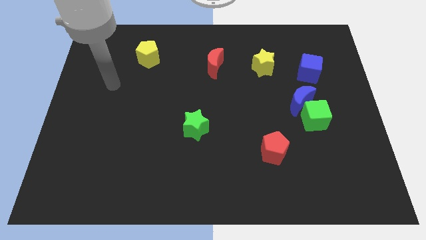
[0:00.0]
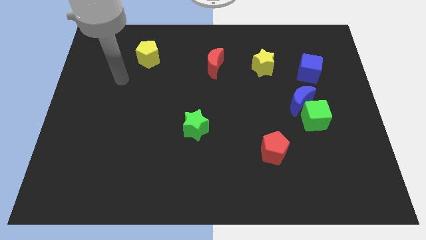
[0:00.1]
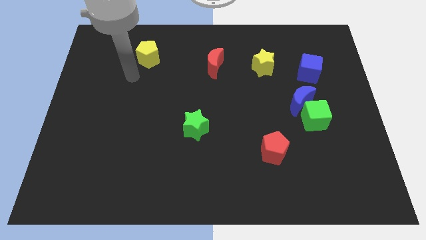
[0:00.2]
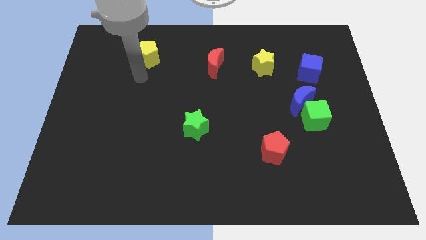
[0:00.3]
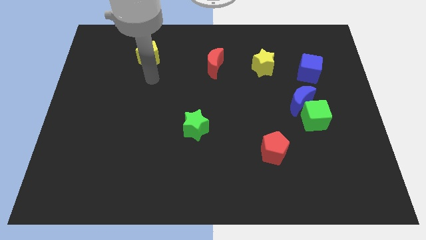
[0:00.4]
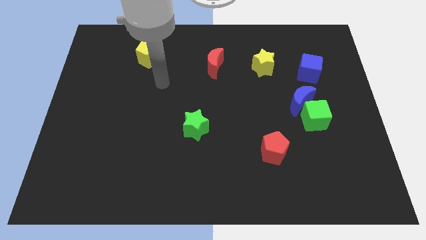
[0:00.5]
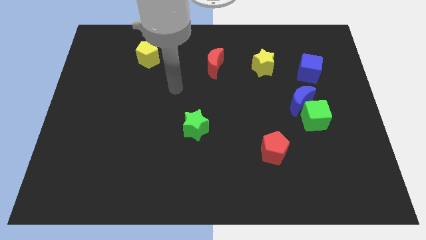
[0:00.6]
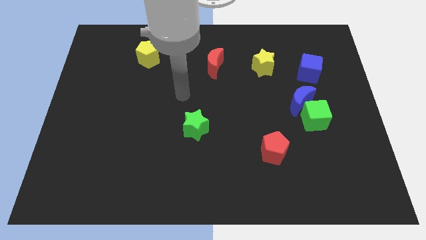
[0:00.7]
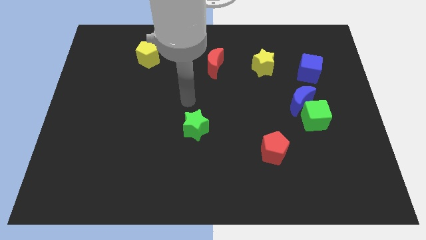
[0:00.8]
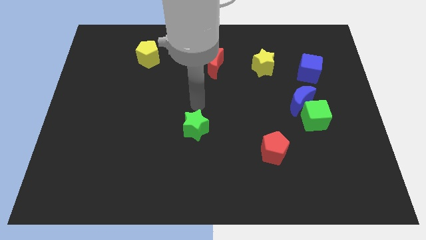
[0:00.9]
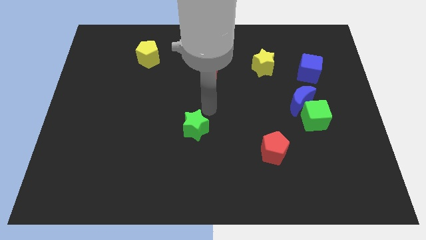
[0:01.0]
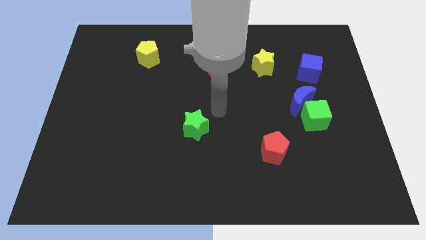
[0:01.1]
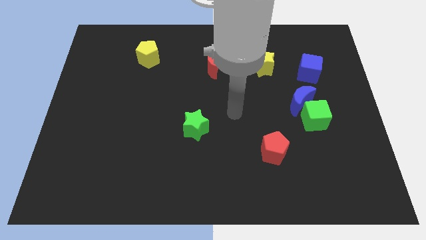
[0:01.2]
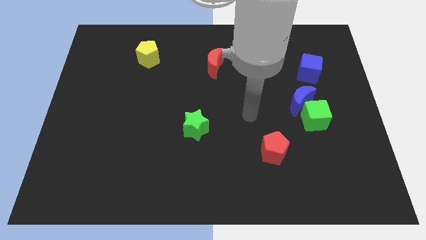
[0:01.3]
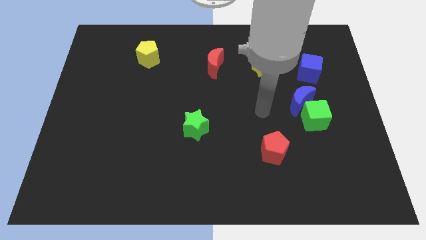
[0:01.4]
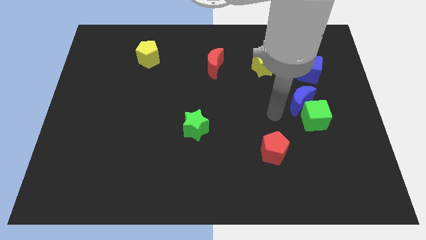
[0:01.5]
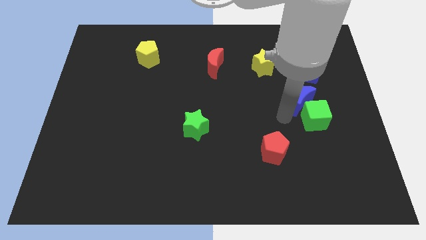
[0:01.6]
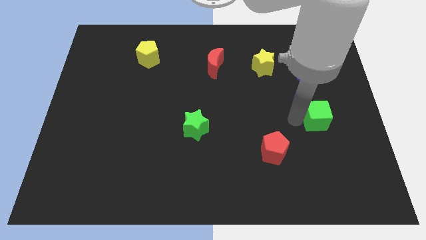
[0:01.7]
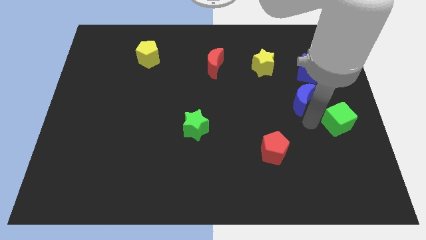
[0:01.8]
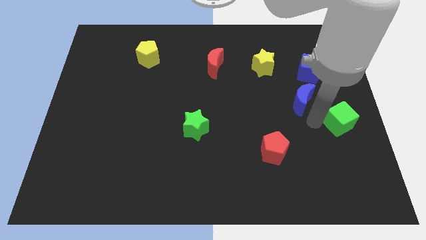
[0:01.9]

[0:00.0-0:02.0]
pull the blue moon apart from the green cube

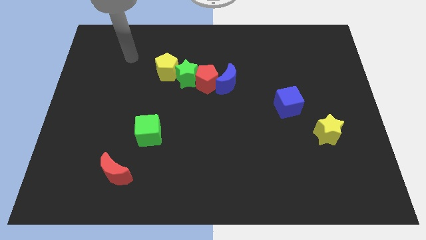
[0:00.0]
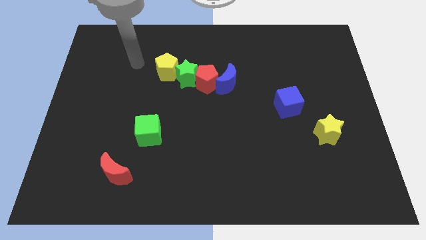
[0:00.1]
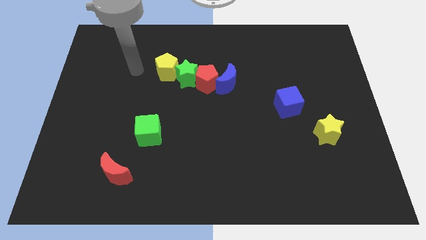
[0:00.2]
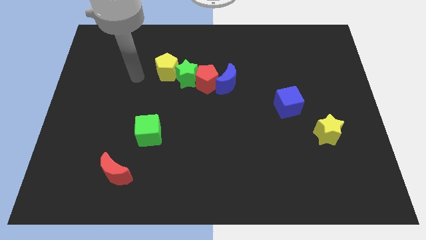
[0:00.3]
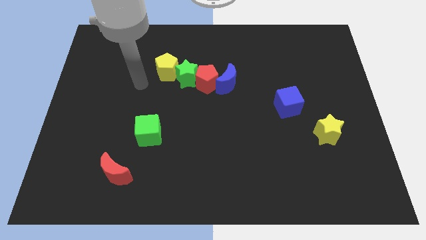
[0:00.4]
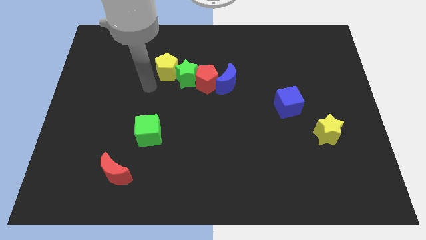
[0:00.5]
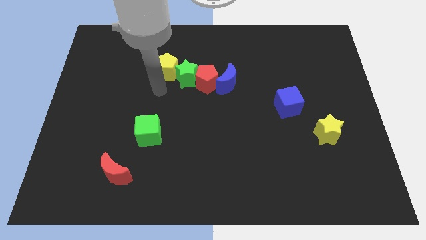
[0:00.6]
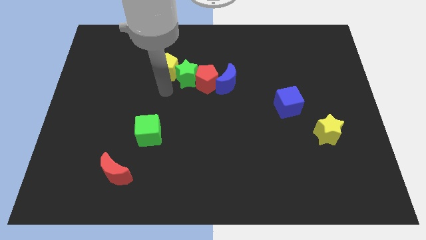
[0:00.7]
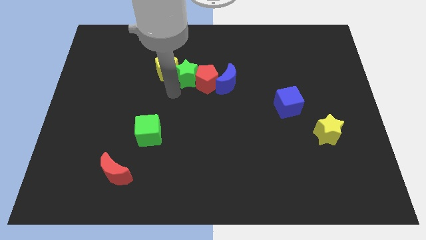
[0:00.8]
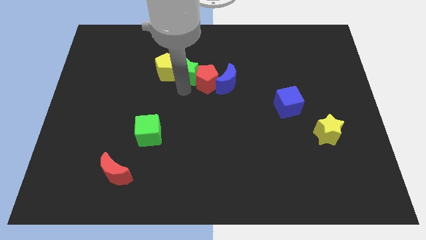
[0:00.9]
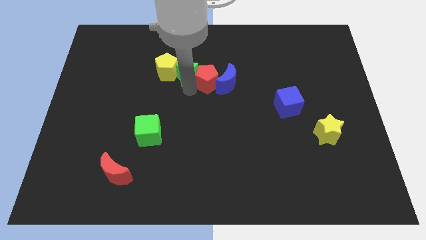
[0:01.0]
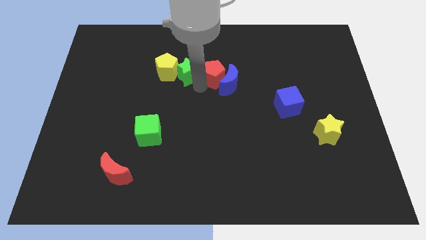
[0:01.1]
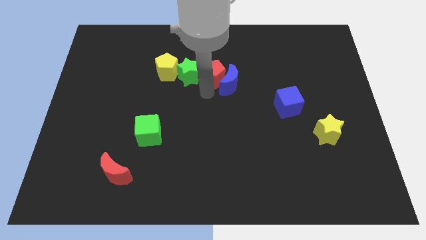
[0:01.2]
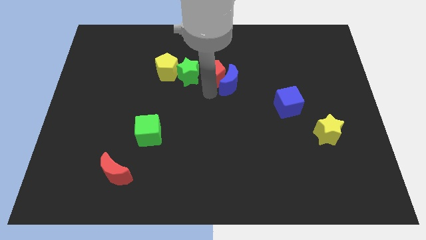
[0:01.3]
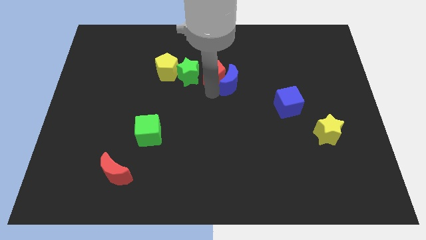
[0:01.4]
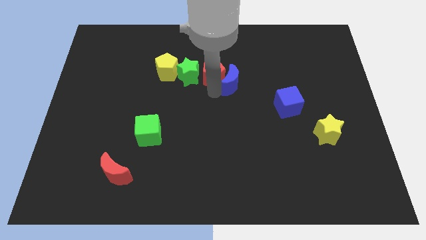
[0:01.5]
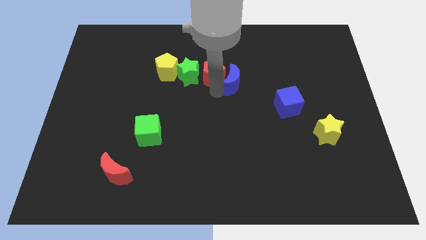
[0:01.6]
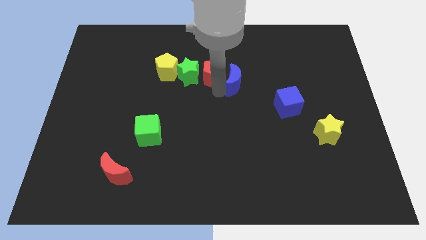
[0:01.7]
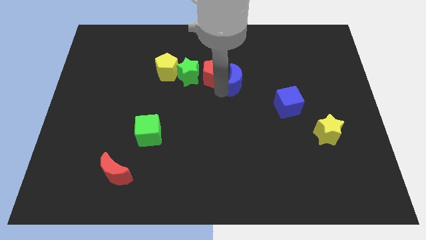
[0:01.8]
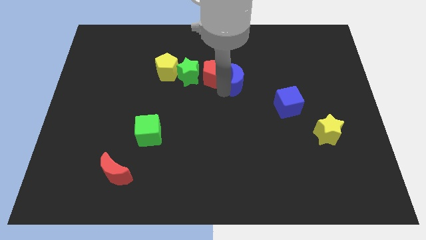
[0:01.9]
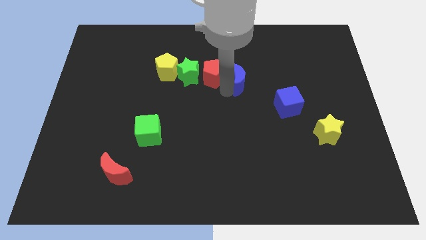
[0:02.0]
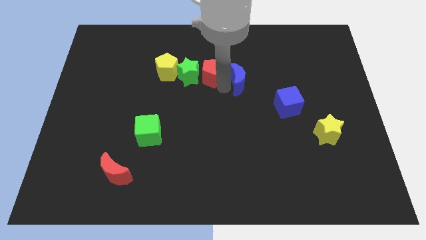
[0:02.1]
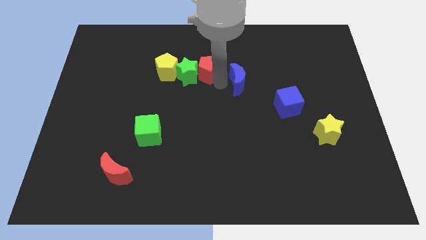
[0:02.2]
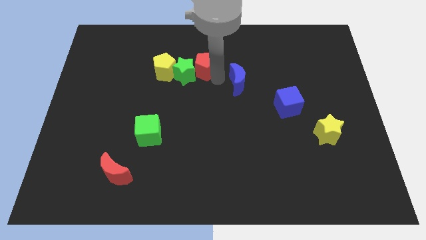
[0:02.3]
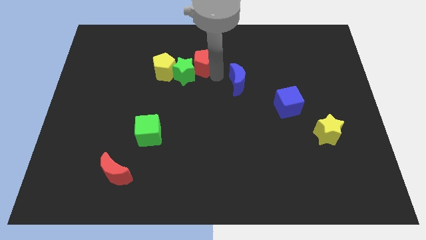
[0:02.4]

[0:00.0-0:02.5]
move the blue moon away from the red pentagon

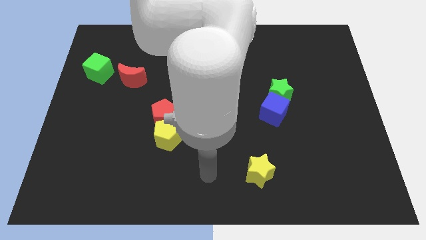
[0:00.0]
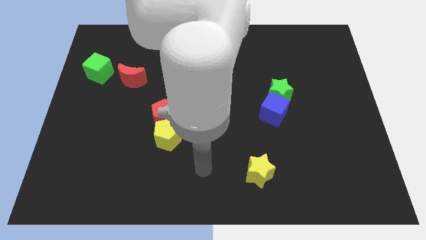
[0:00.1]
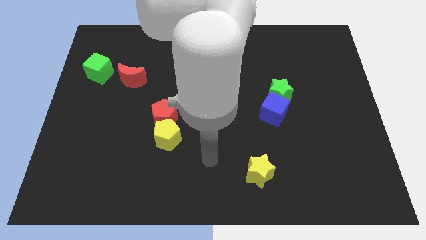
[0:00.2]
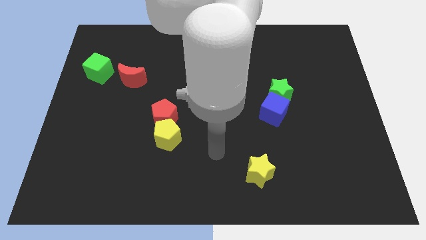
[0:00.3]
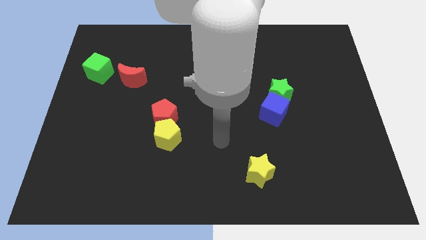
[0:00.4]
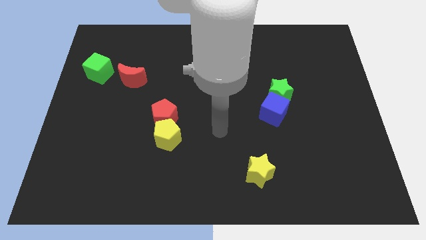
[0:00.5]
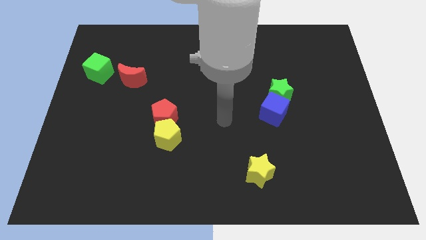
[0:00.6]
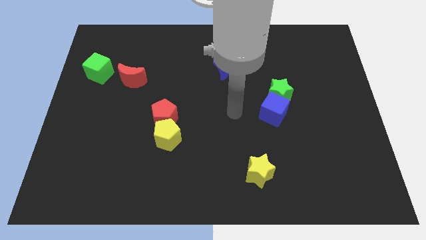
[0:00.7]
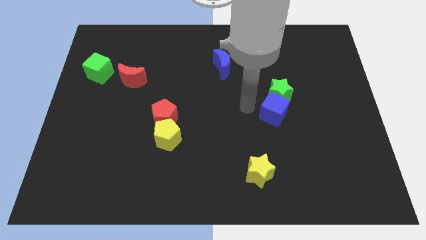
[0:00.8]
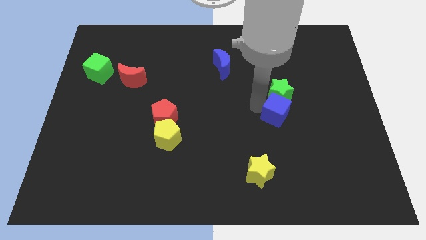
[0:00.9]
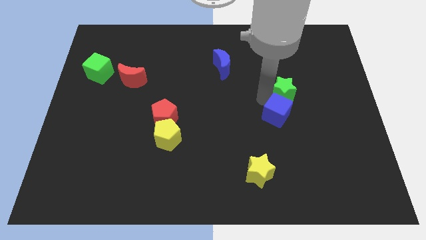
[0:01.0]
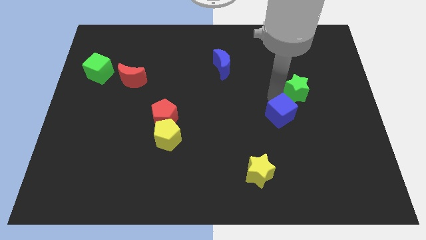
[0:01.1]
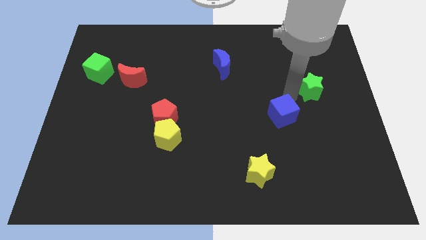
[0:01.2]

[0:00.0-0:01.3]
pull the blue cube apart from the green star

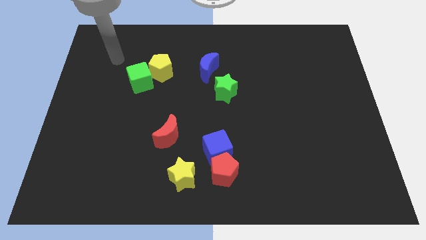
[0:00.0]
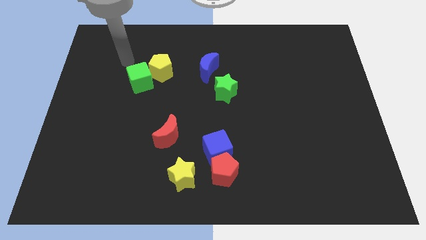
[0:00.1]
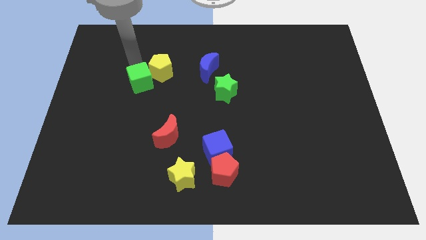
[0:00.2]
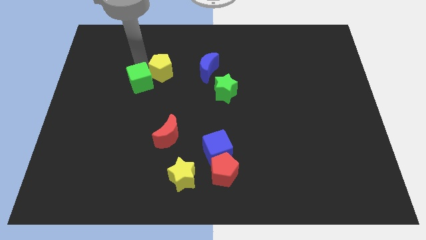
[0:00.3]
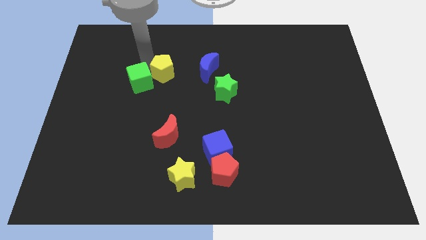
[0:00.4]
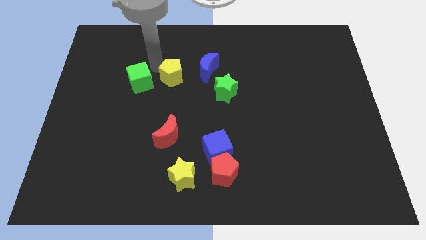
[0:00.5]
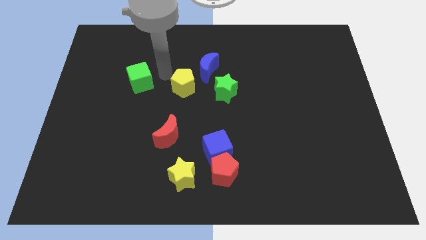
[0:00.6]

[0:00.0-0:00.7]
move the green cube away from the yellow pentagon

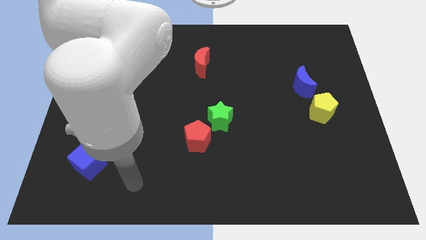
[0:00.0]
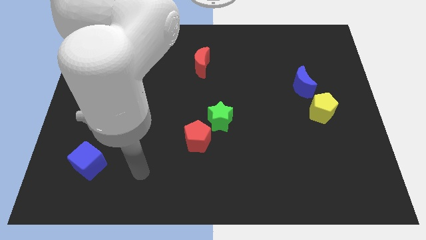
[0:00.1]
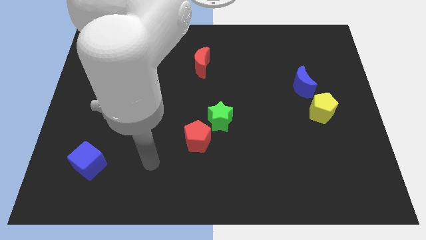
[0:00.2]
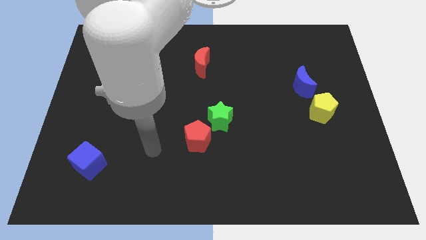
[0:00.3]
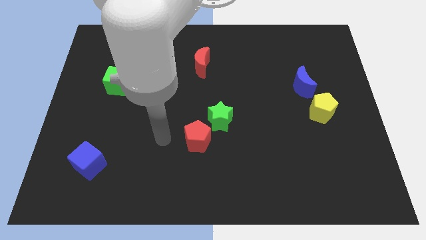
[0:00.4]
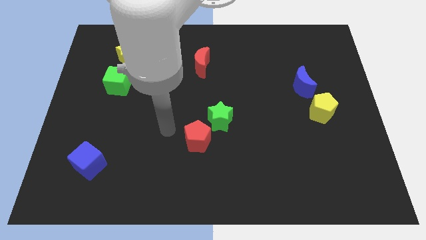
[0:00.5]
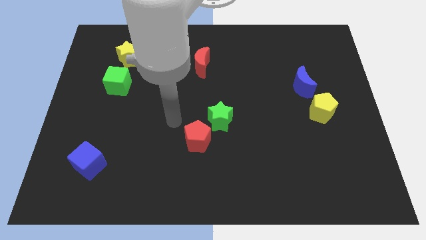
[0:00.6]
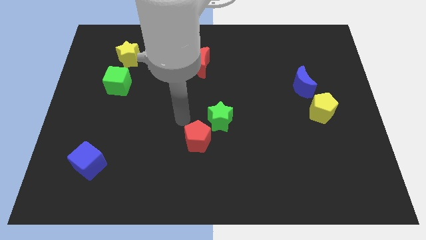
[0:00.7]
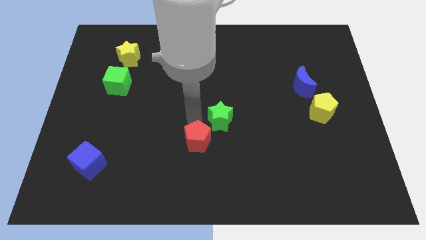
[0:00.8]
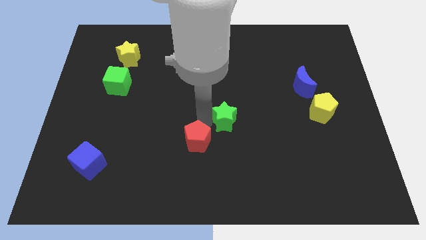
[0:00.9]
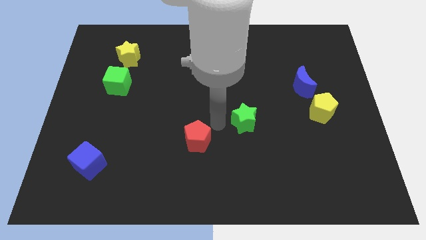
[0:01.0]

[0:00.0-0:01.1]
pull the red pentagon apart from the green star

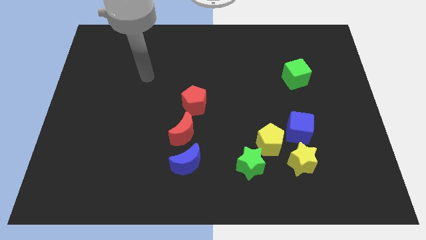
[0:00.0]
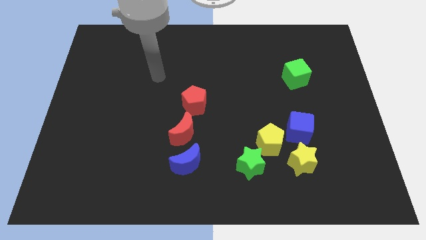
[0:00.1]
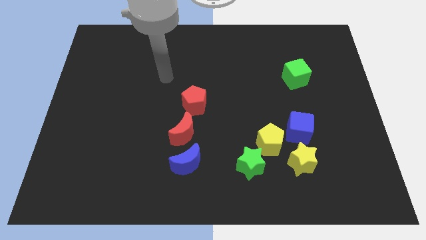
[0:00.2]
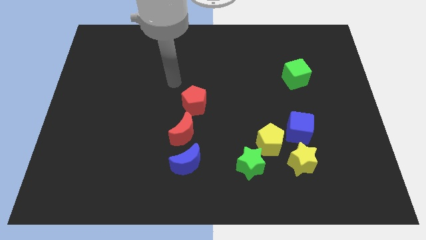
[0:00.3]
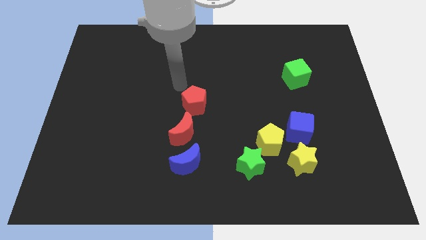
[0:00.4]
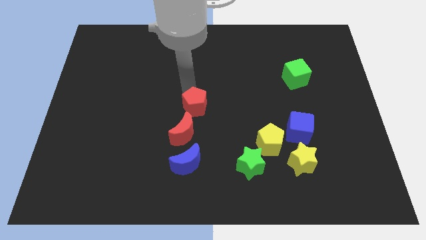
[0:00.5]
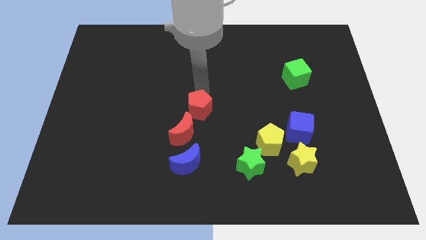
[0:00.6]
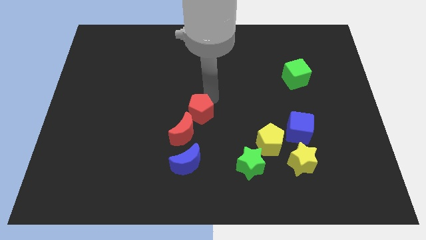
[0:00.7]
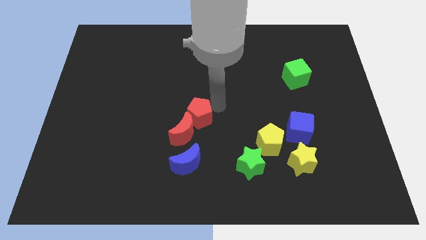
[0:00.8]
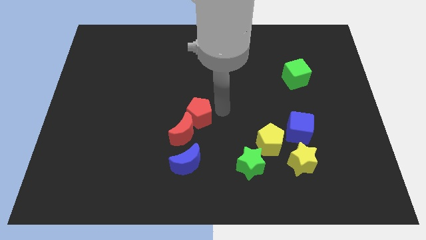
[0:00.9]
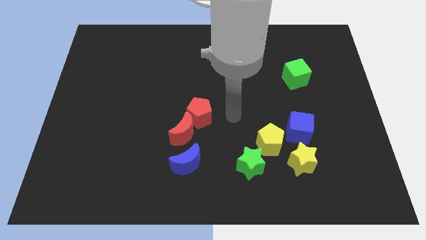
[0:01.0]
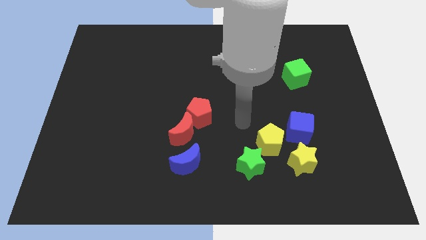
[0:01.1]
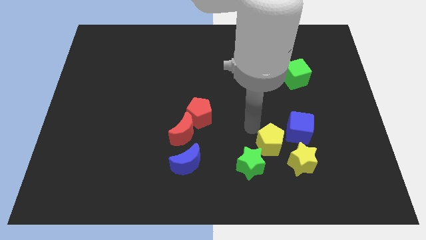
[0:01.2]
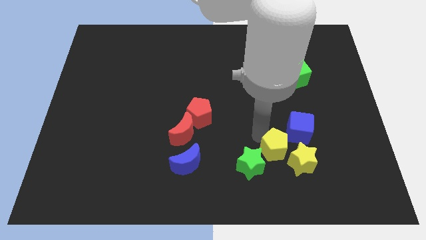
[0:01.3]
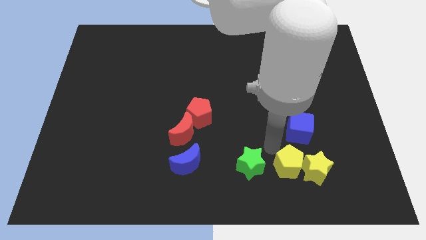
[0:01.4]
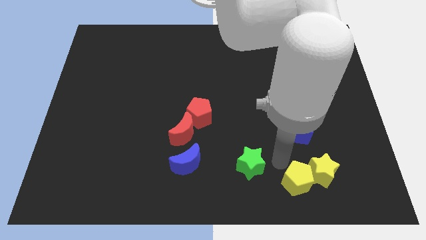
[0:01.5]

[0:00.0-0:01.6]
pull the green star apart from the yellow pentagon

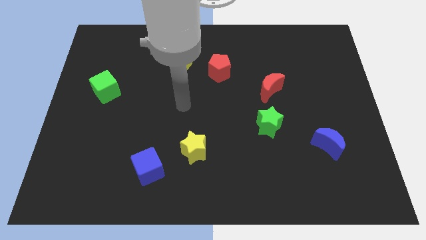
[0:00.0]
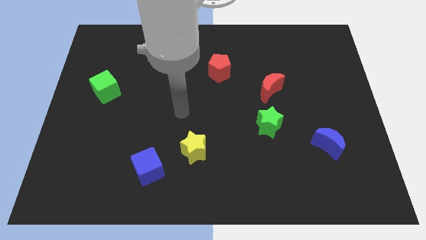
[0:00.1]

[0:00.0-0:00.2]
move the blue cube away from the yellow star
